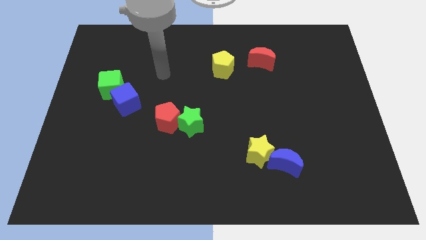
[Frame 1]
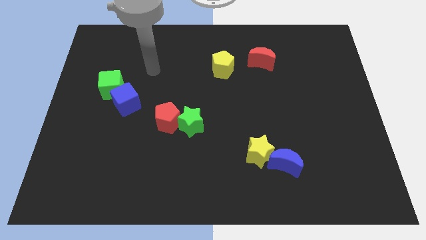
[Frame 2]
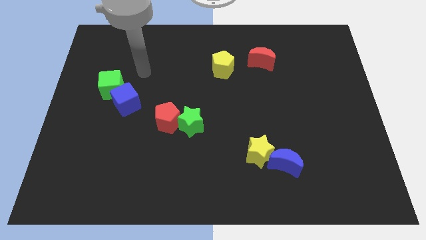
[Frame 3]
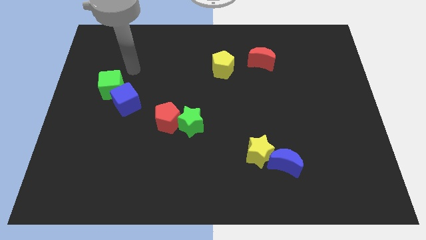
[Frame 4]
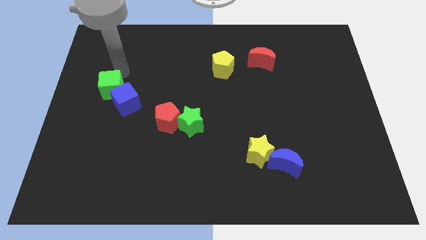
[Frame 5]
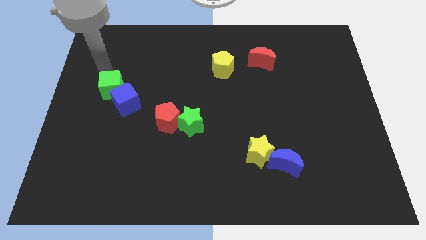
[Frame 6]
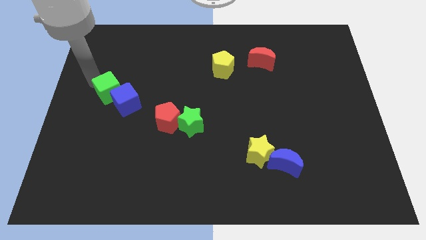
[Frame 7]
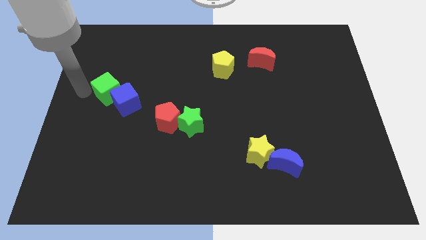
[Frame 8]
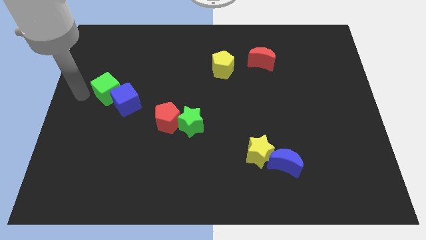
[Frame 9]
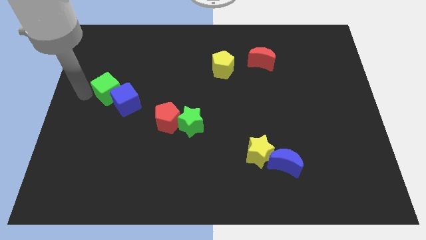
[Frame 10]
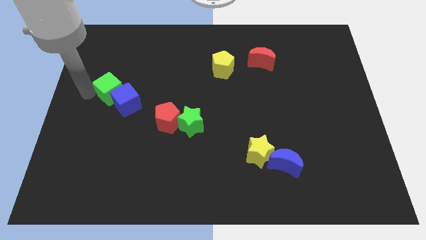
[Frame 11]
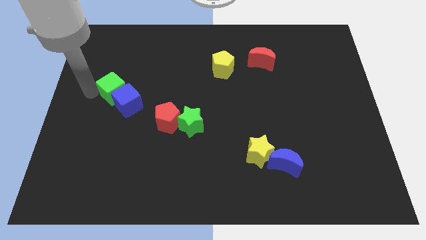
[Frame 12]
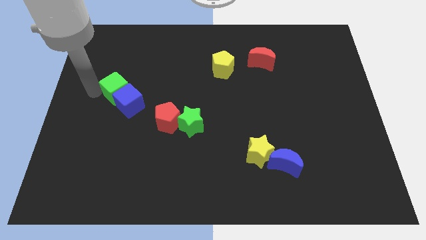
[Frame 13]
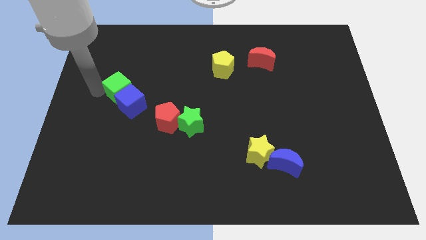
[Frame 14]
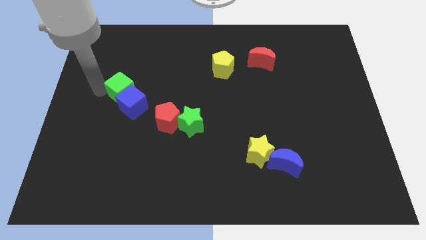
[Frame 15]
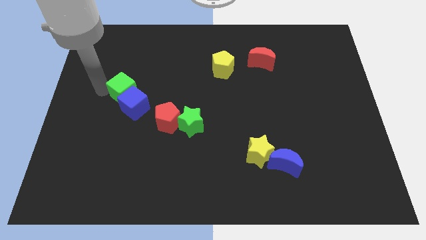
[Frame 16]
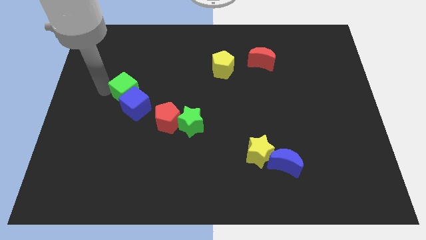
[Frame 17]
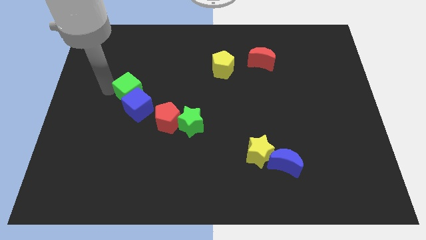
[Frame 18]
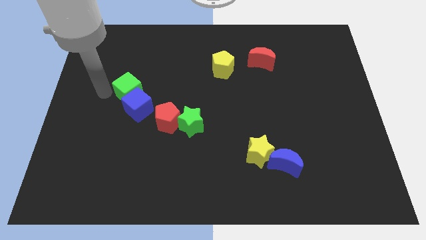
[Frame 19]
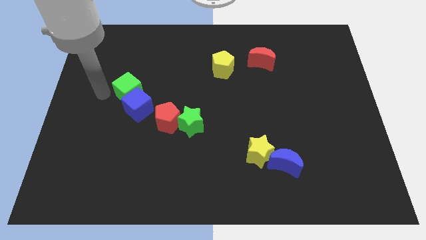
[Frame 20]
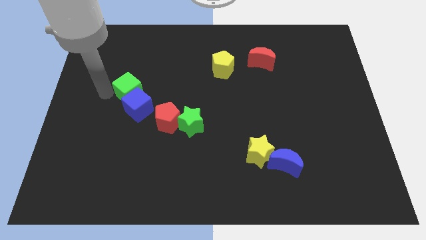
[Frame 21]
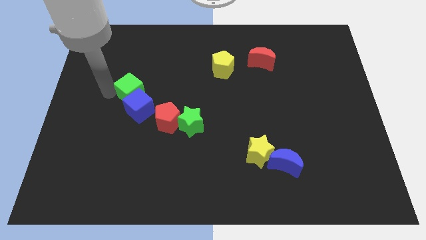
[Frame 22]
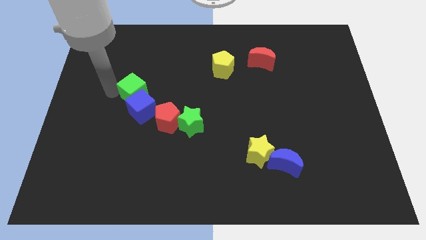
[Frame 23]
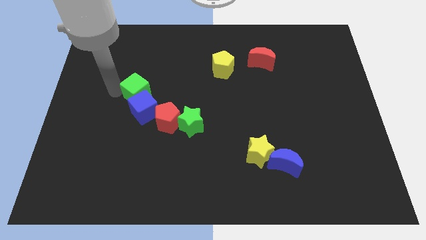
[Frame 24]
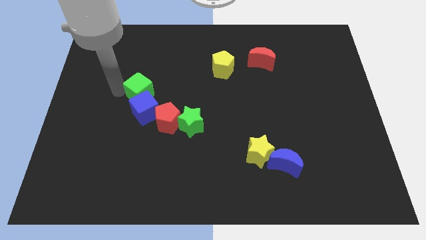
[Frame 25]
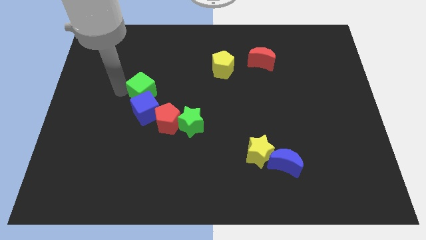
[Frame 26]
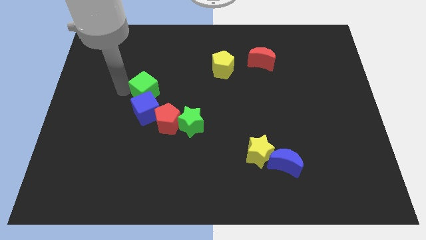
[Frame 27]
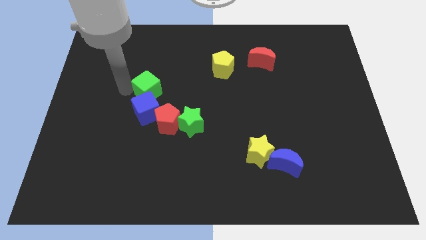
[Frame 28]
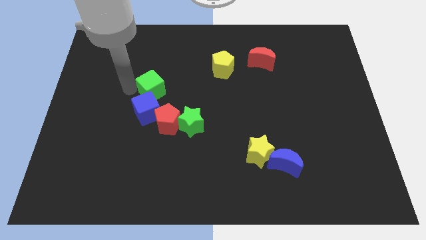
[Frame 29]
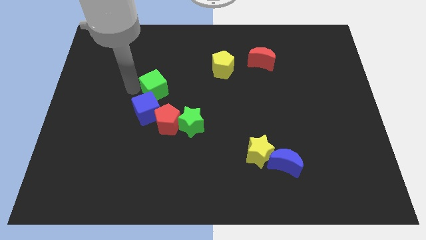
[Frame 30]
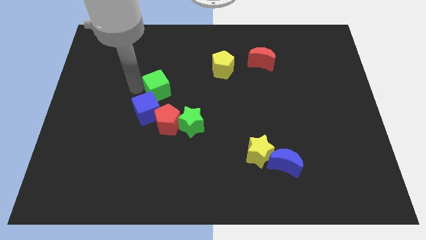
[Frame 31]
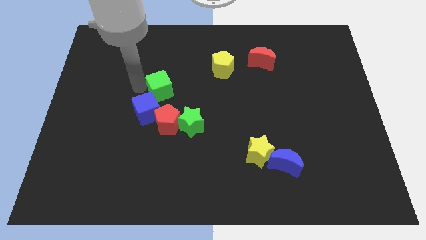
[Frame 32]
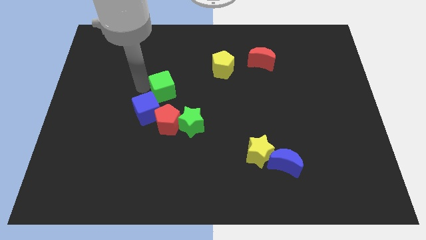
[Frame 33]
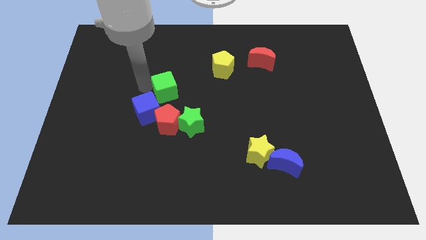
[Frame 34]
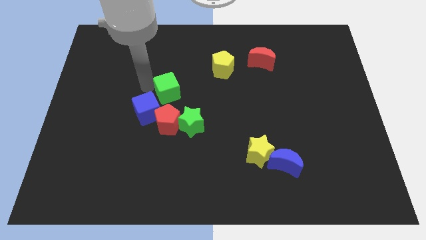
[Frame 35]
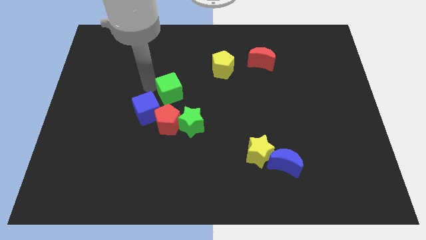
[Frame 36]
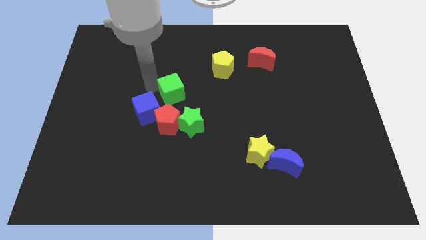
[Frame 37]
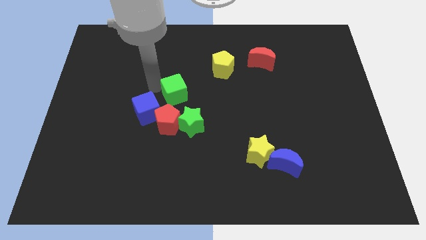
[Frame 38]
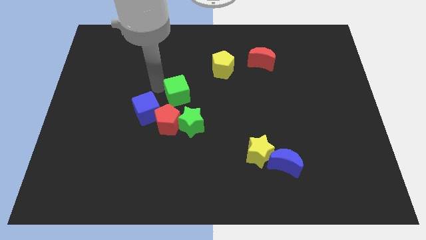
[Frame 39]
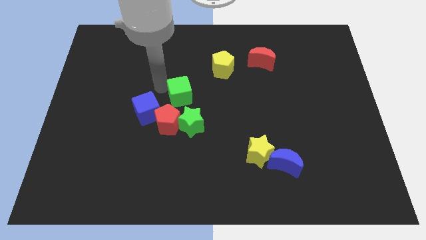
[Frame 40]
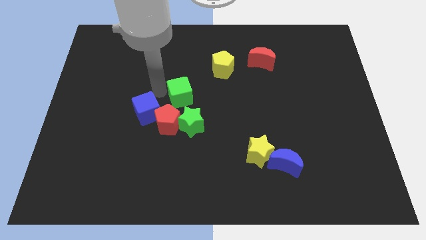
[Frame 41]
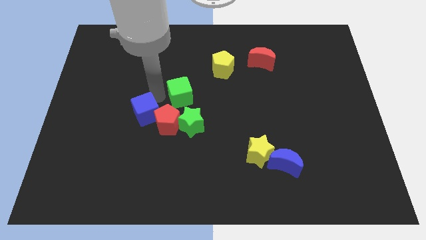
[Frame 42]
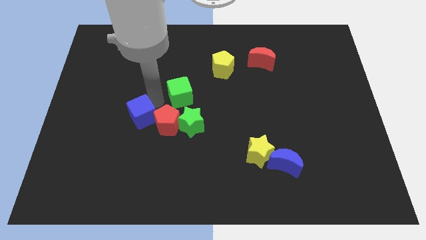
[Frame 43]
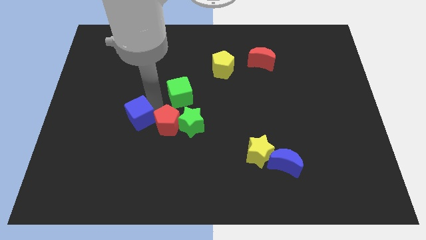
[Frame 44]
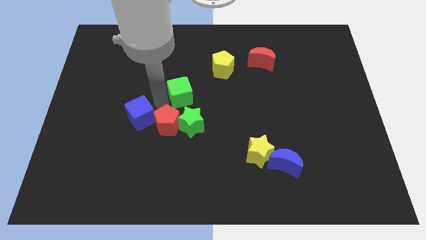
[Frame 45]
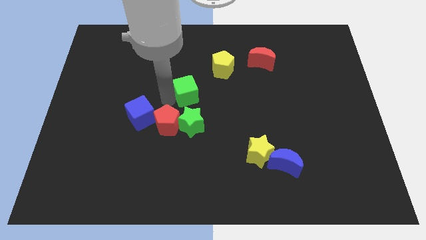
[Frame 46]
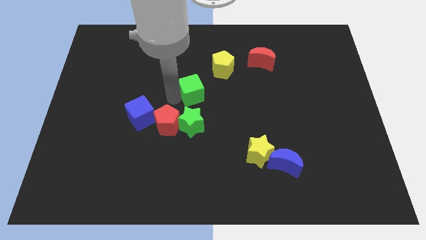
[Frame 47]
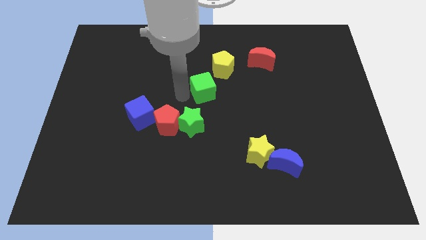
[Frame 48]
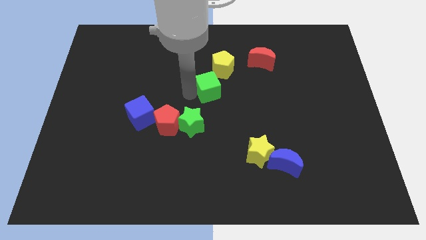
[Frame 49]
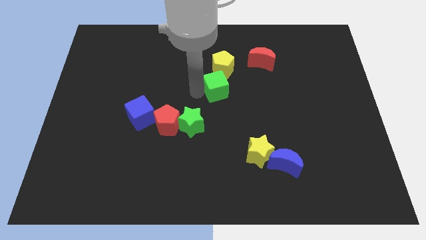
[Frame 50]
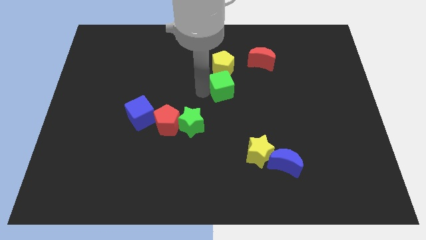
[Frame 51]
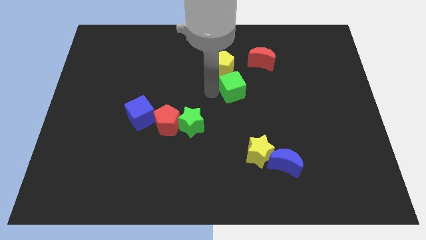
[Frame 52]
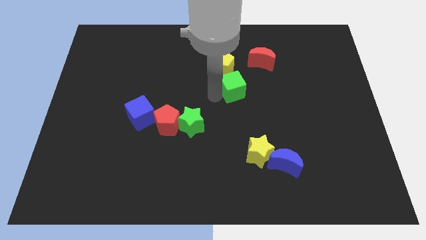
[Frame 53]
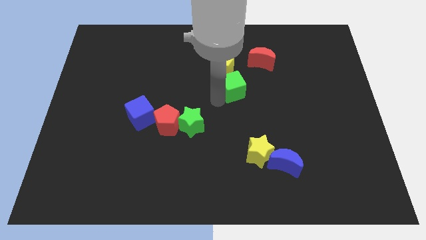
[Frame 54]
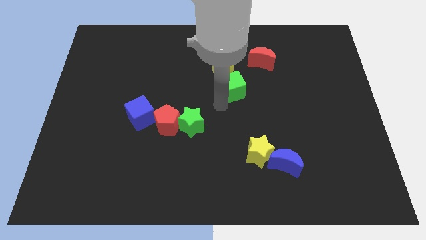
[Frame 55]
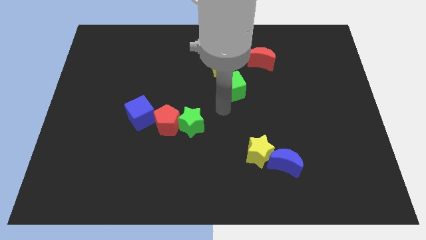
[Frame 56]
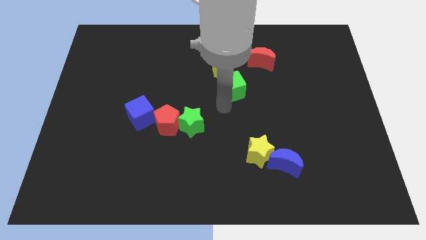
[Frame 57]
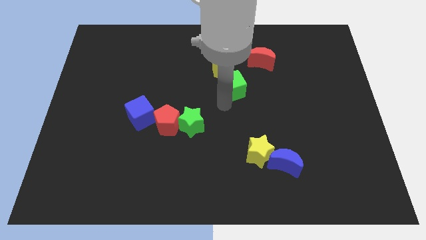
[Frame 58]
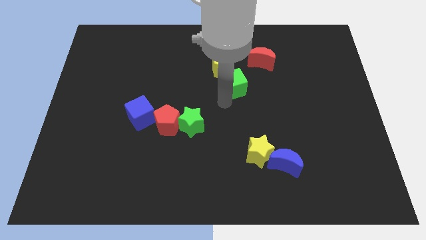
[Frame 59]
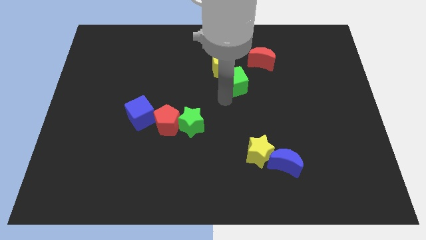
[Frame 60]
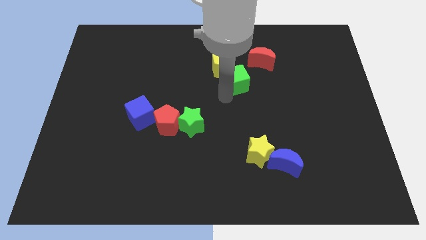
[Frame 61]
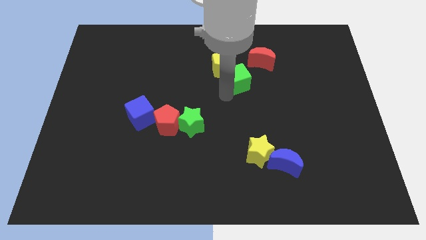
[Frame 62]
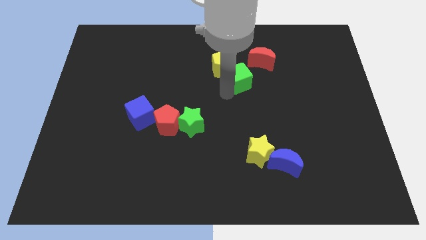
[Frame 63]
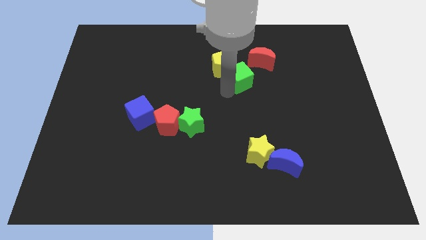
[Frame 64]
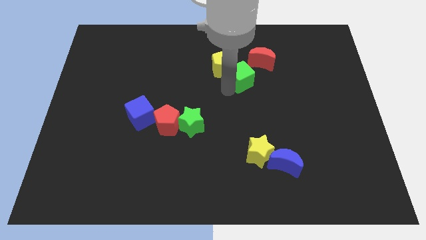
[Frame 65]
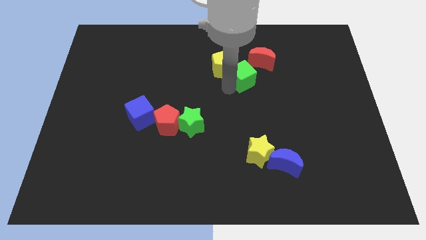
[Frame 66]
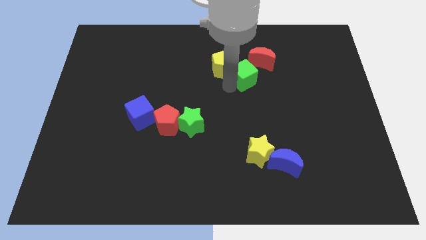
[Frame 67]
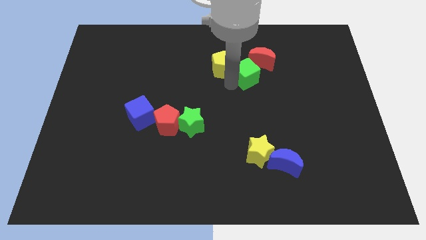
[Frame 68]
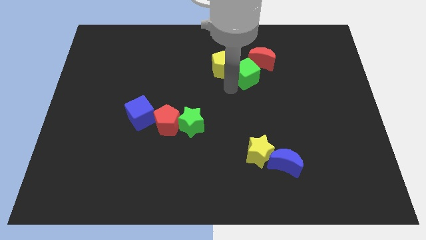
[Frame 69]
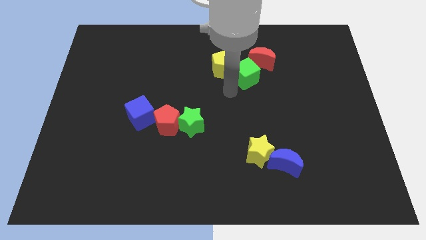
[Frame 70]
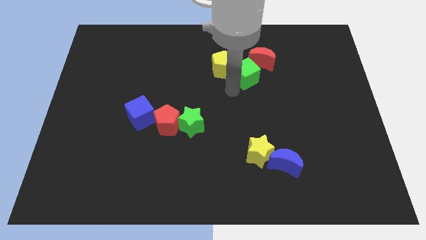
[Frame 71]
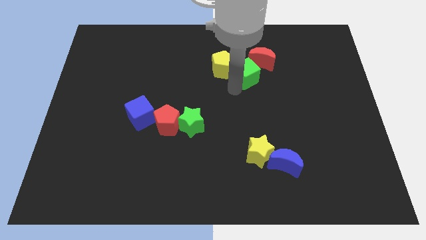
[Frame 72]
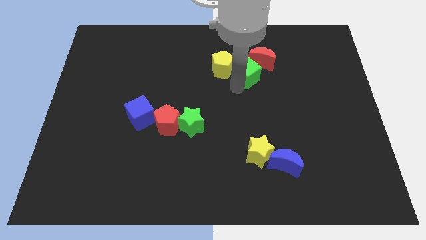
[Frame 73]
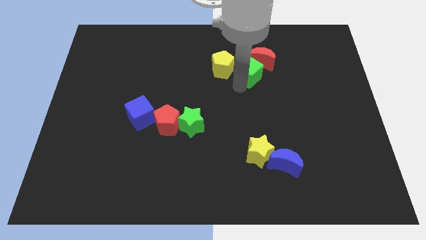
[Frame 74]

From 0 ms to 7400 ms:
move the green cube next to the red moon

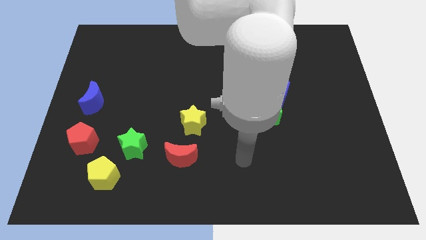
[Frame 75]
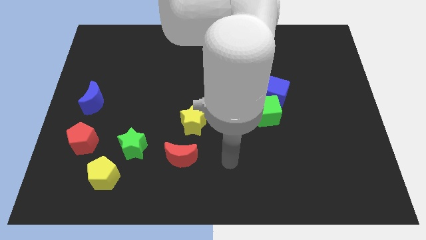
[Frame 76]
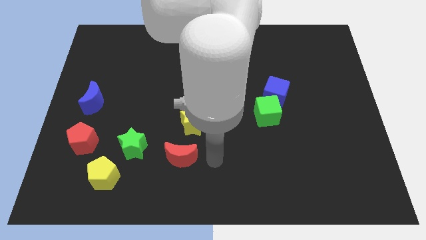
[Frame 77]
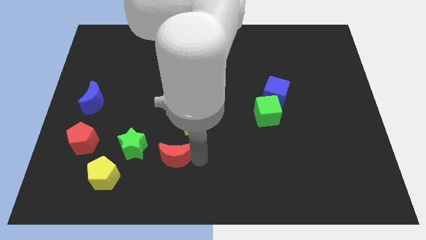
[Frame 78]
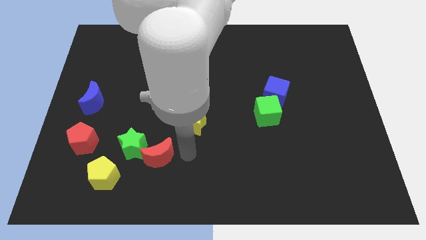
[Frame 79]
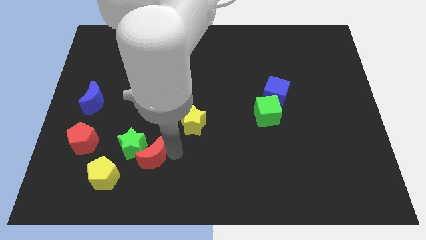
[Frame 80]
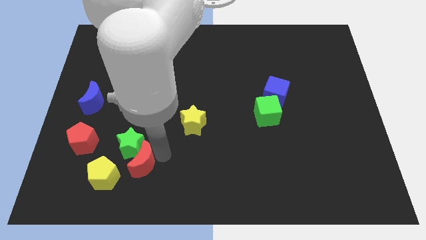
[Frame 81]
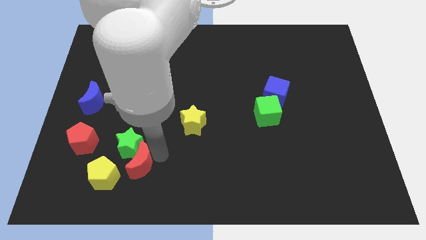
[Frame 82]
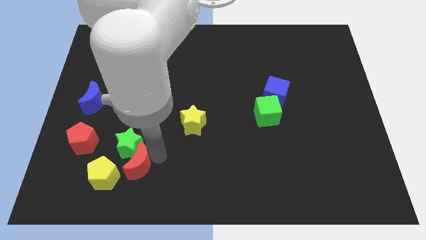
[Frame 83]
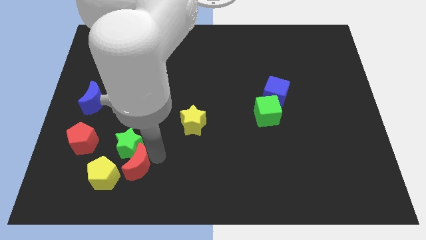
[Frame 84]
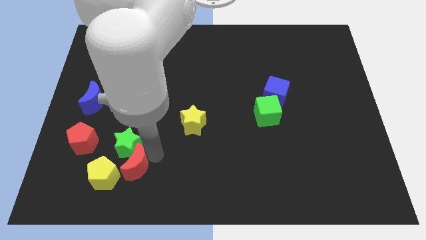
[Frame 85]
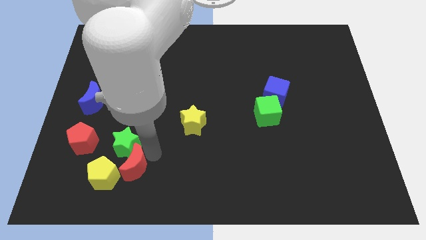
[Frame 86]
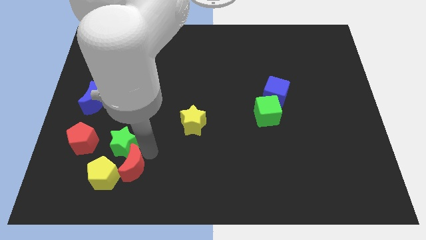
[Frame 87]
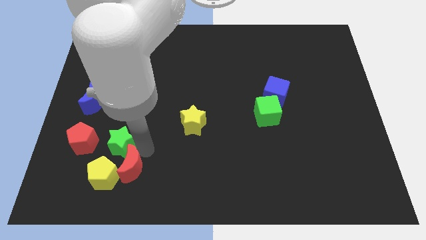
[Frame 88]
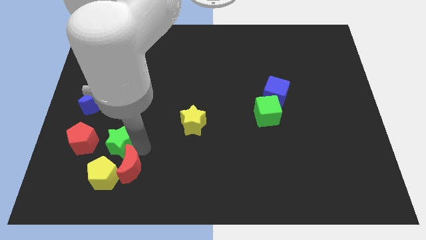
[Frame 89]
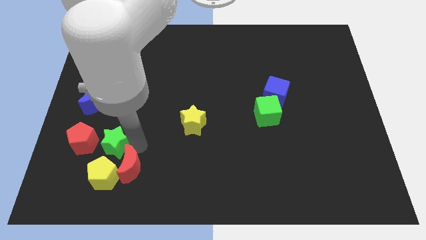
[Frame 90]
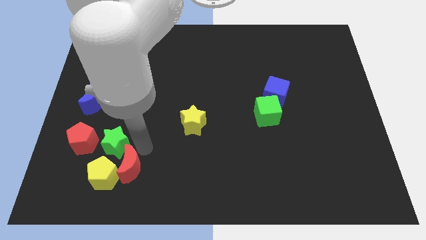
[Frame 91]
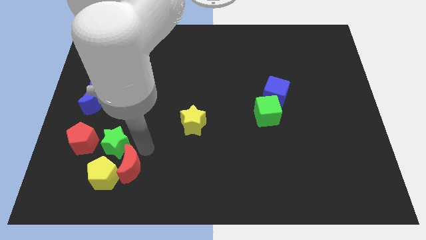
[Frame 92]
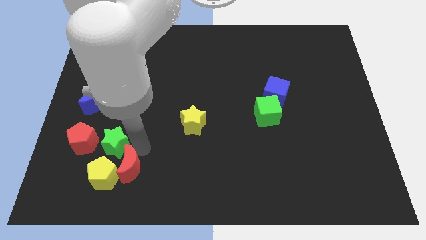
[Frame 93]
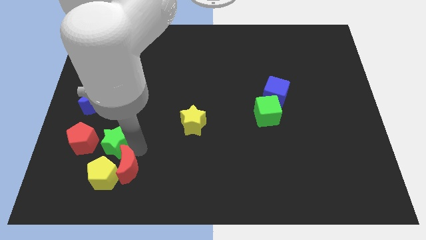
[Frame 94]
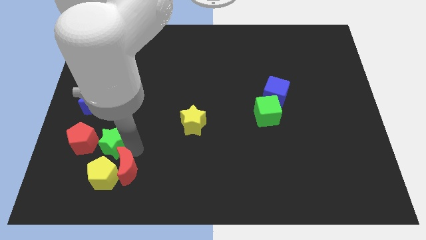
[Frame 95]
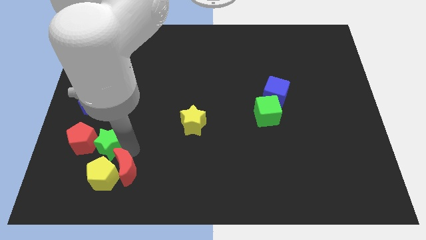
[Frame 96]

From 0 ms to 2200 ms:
move the green star to the red pentagon
